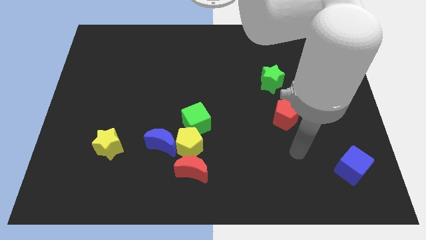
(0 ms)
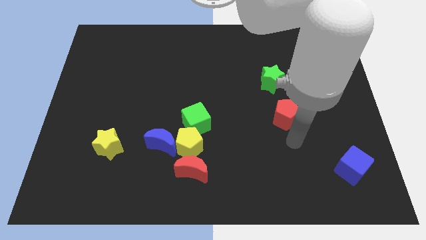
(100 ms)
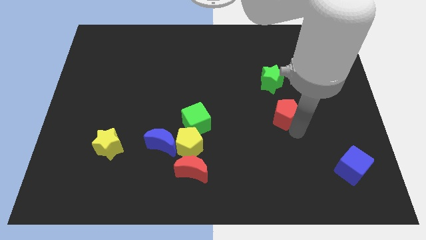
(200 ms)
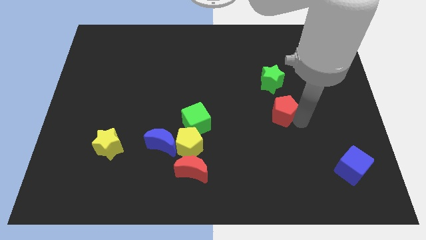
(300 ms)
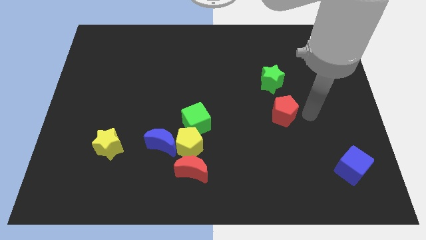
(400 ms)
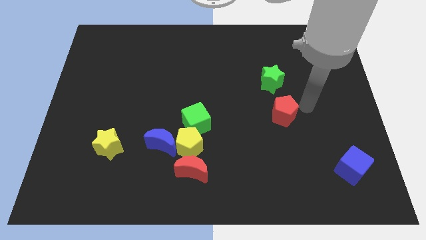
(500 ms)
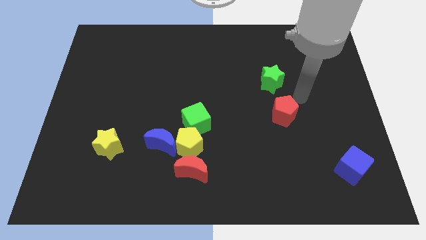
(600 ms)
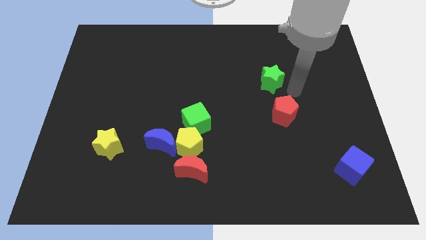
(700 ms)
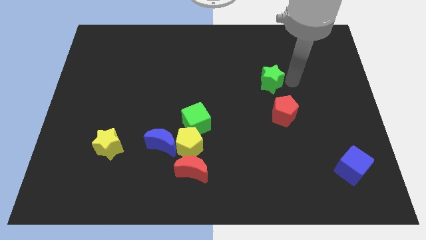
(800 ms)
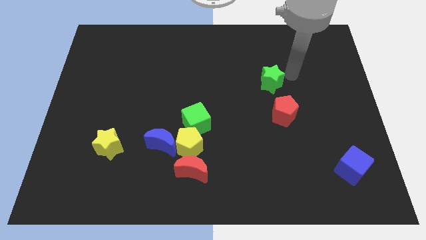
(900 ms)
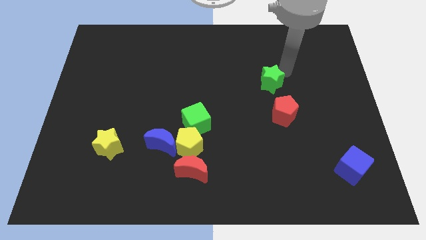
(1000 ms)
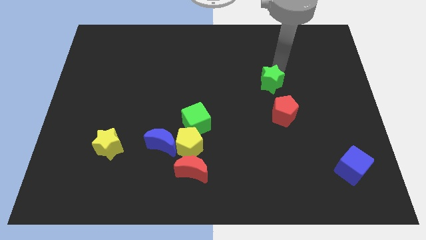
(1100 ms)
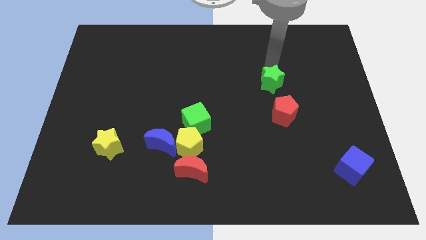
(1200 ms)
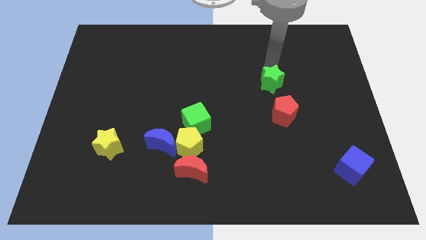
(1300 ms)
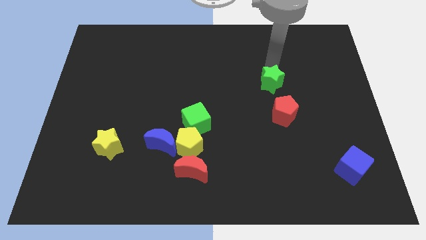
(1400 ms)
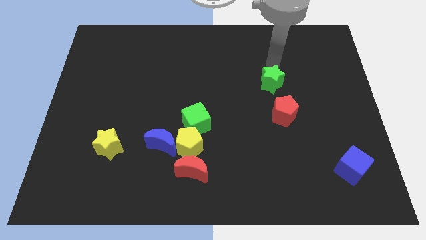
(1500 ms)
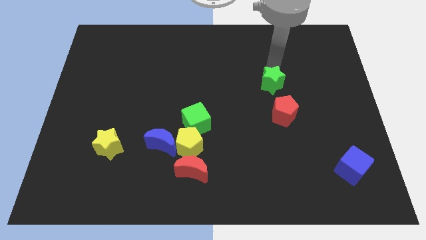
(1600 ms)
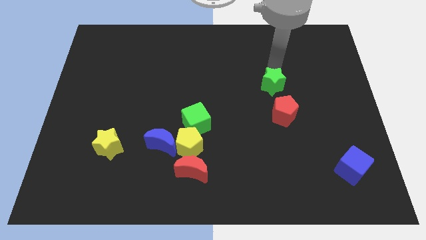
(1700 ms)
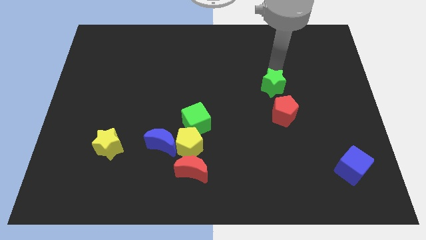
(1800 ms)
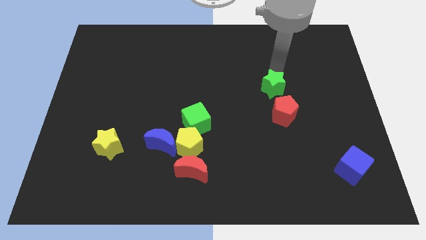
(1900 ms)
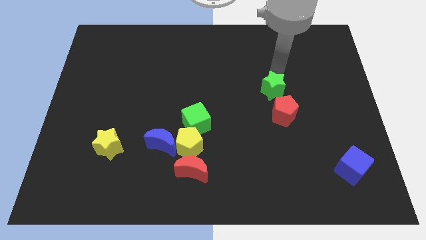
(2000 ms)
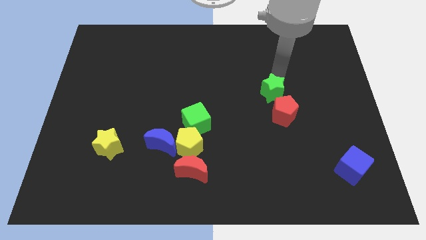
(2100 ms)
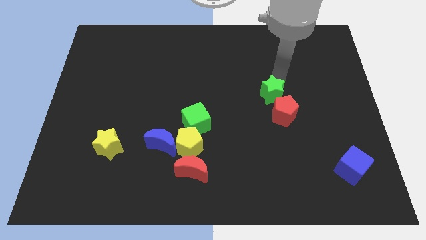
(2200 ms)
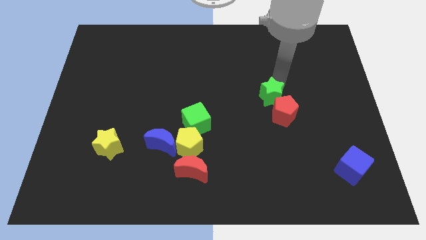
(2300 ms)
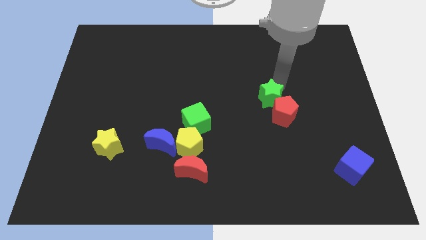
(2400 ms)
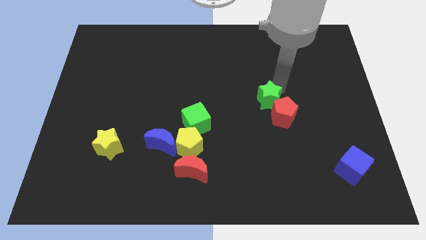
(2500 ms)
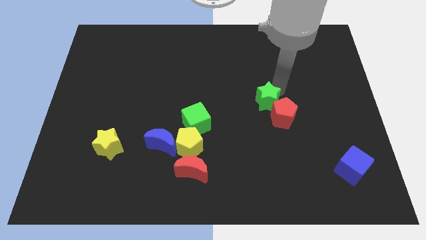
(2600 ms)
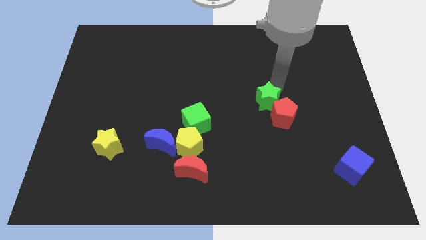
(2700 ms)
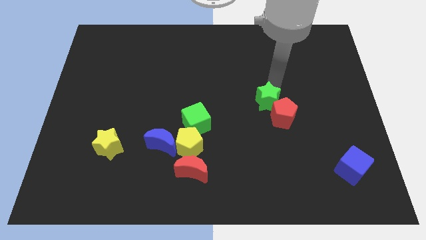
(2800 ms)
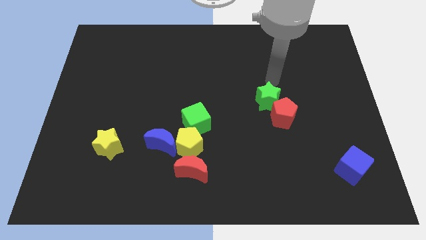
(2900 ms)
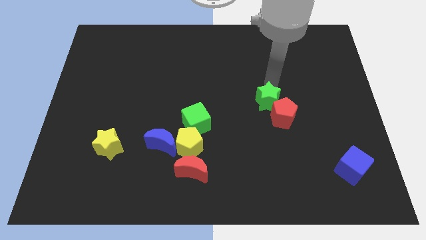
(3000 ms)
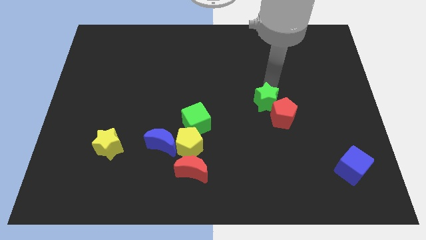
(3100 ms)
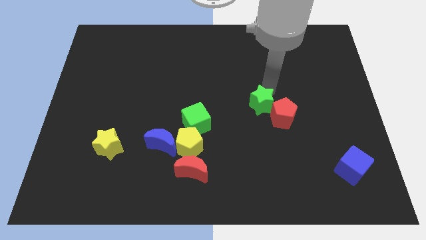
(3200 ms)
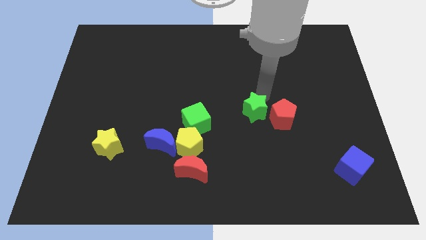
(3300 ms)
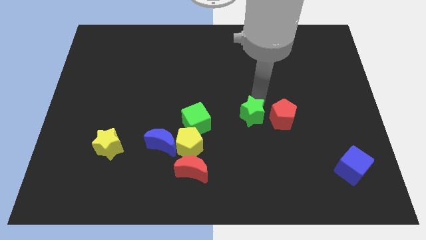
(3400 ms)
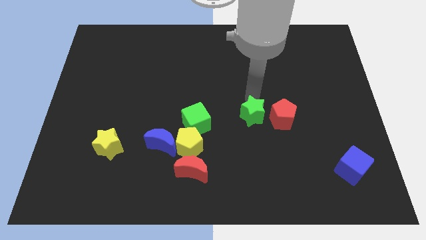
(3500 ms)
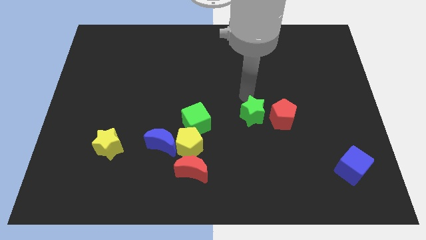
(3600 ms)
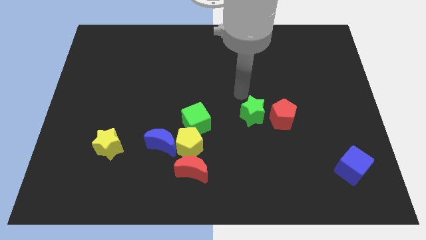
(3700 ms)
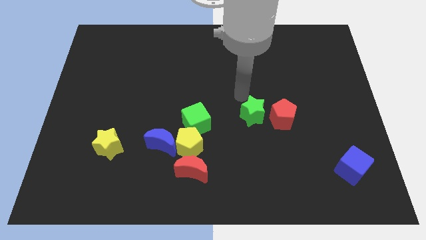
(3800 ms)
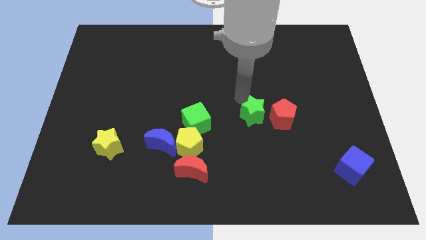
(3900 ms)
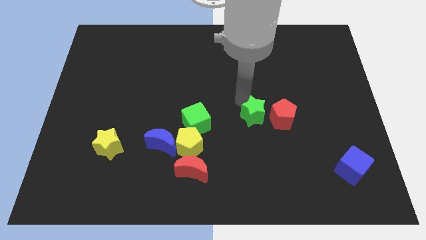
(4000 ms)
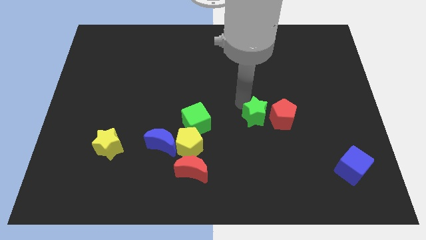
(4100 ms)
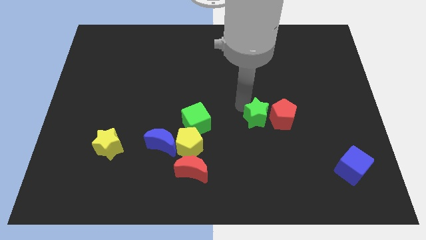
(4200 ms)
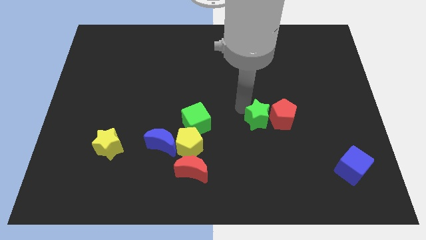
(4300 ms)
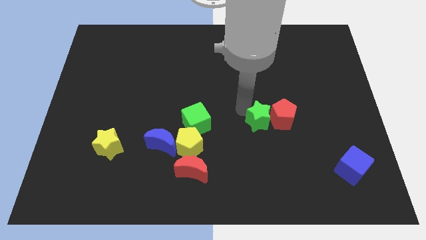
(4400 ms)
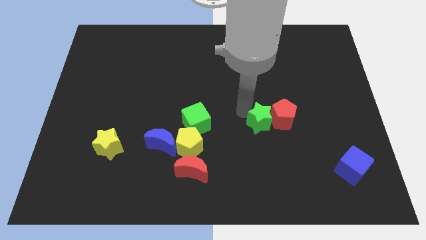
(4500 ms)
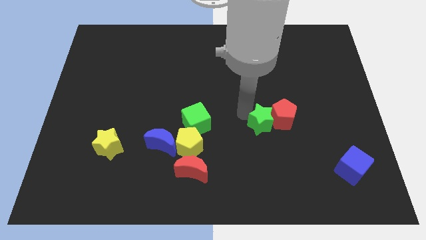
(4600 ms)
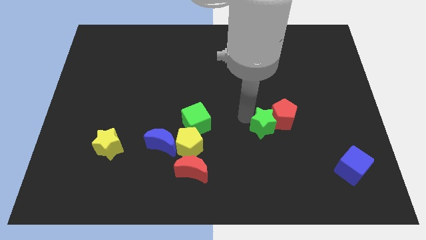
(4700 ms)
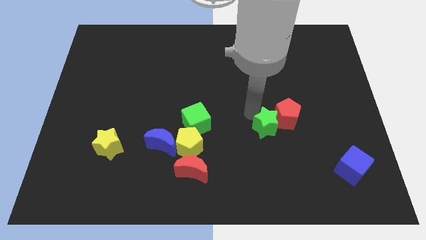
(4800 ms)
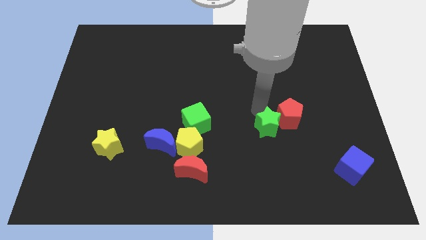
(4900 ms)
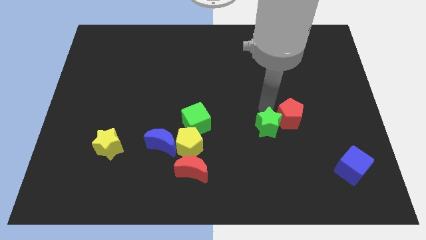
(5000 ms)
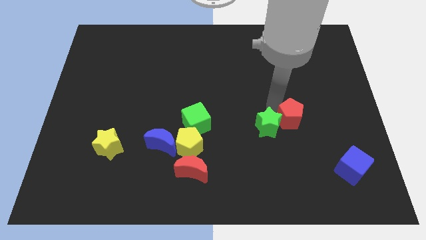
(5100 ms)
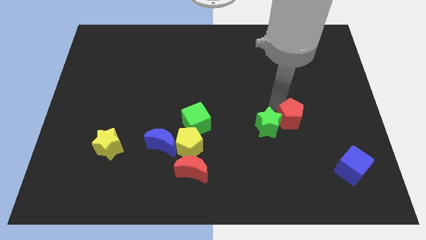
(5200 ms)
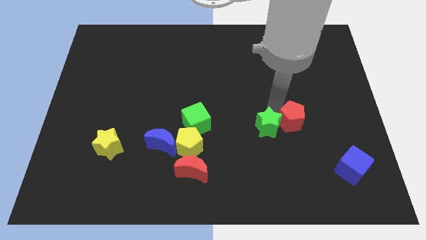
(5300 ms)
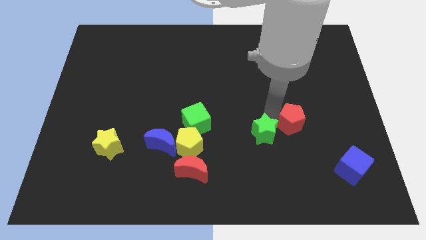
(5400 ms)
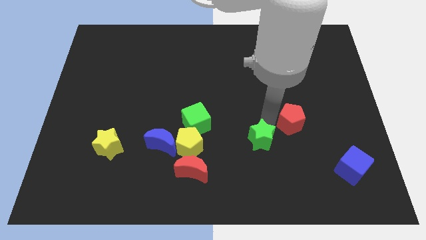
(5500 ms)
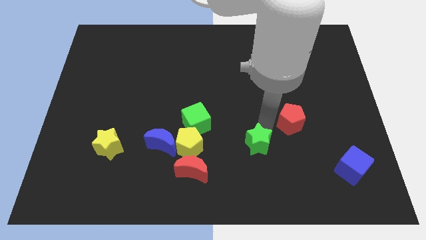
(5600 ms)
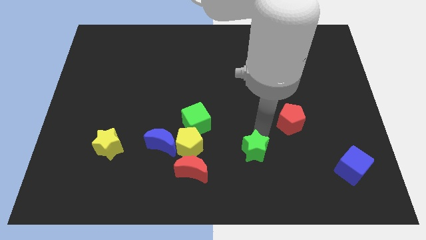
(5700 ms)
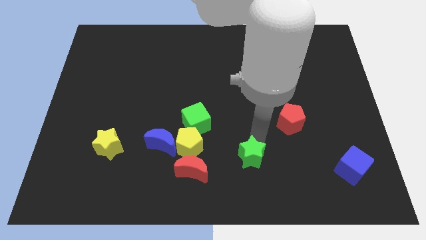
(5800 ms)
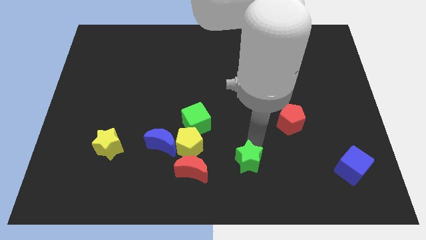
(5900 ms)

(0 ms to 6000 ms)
slide the green star to the bottom side
